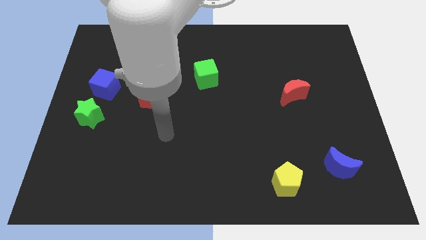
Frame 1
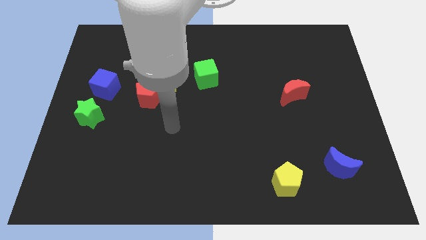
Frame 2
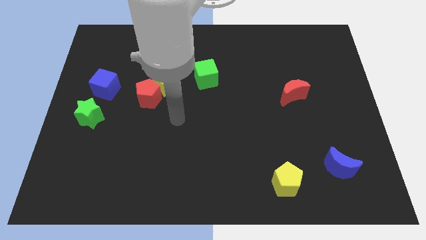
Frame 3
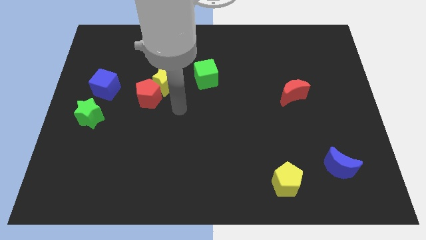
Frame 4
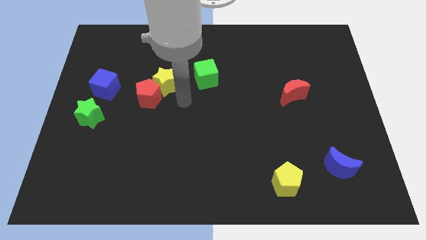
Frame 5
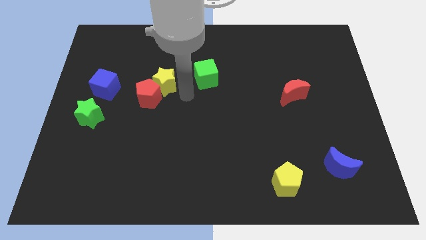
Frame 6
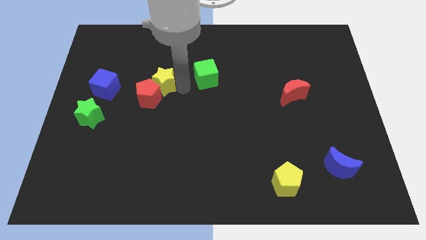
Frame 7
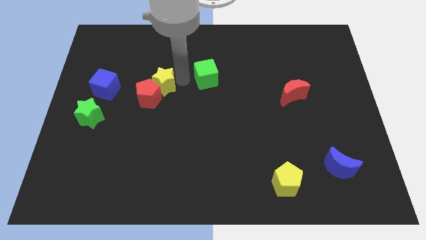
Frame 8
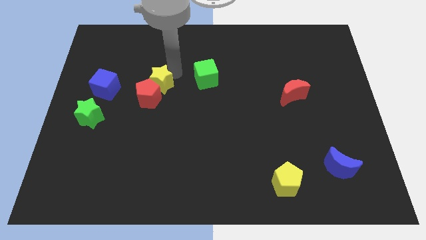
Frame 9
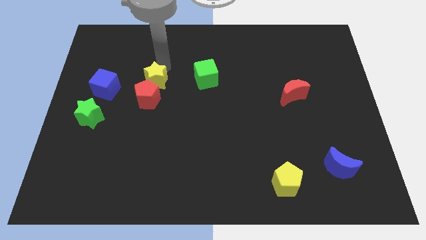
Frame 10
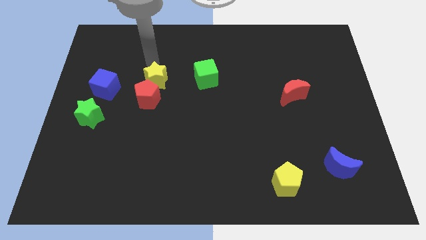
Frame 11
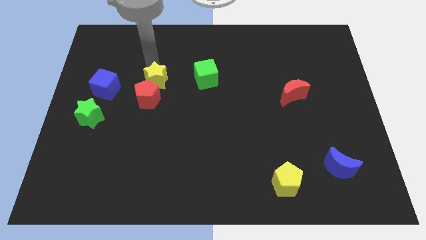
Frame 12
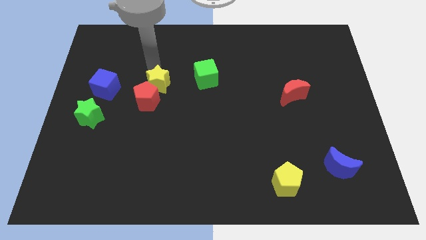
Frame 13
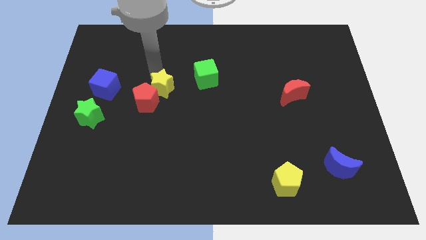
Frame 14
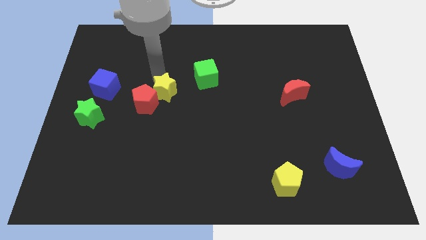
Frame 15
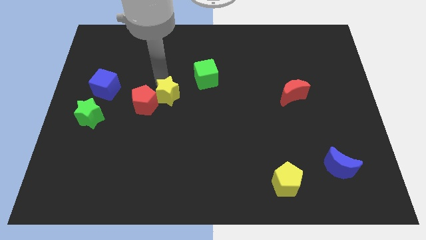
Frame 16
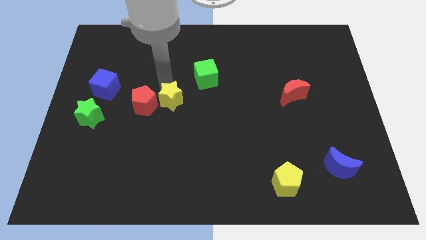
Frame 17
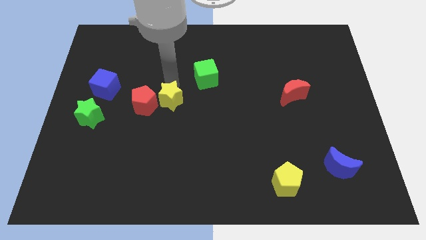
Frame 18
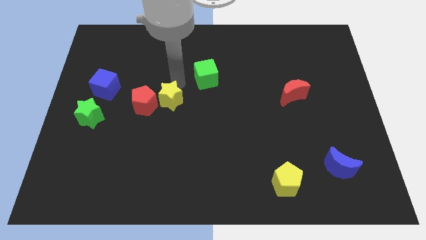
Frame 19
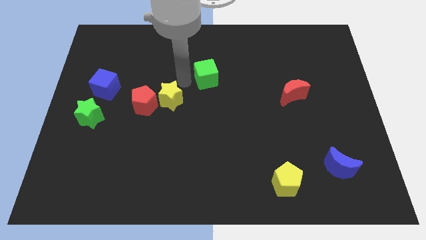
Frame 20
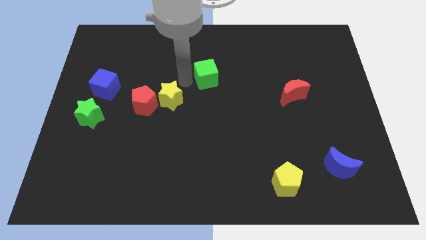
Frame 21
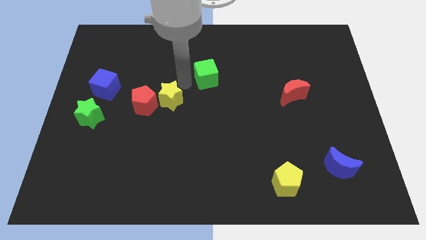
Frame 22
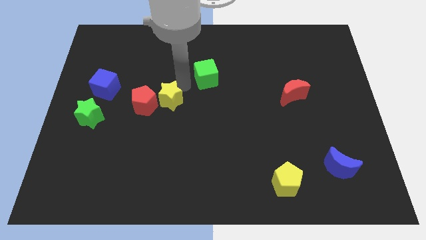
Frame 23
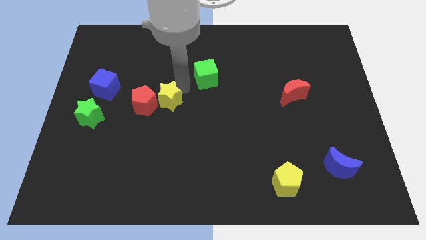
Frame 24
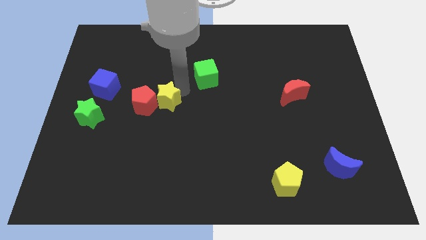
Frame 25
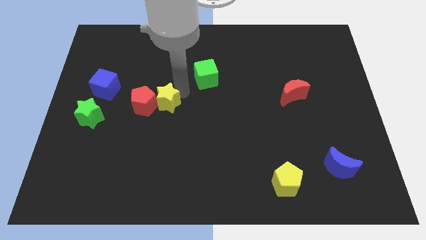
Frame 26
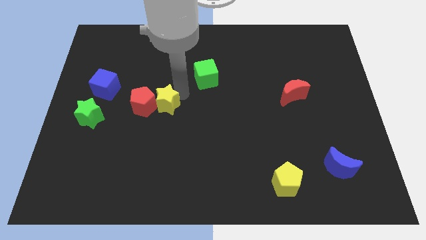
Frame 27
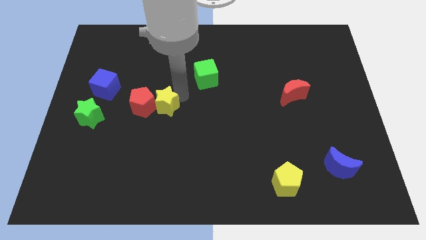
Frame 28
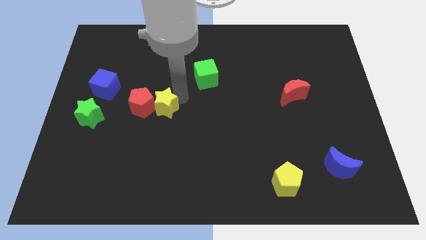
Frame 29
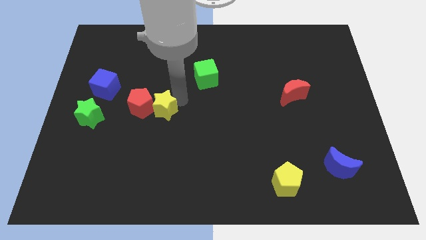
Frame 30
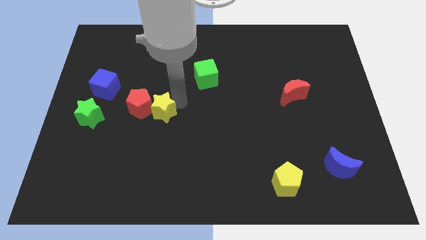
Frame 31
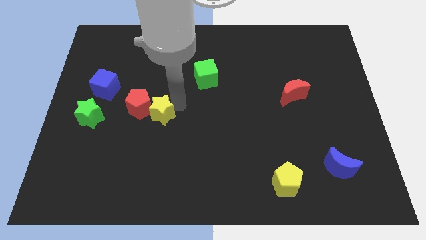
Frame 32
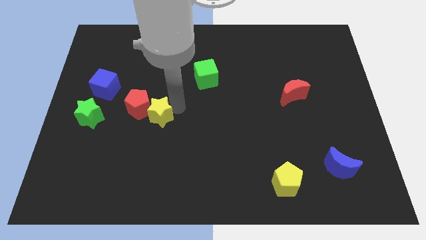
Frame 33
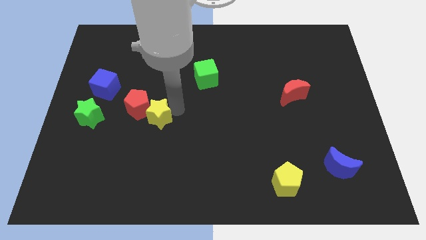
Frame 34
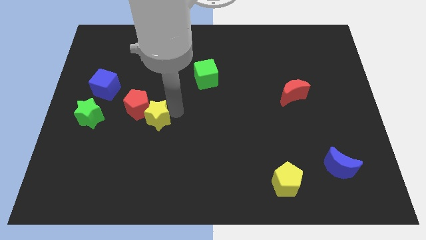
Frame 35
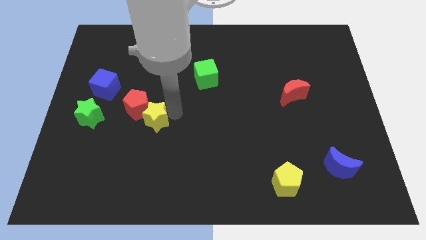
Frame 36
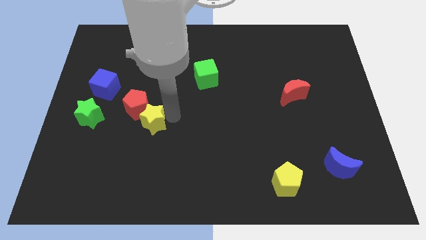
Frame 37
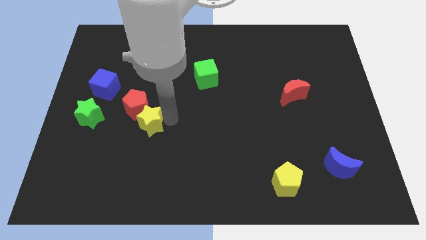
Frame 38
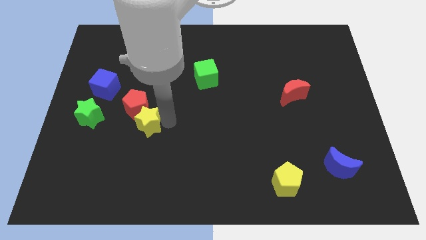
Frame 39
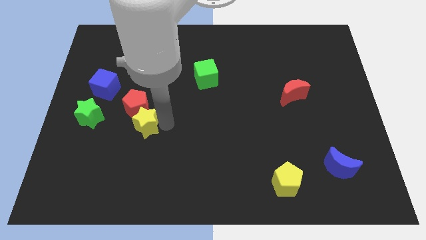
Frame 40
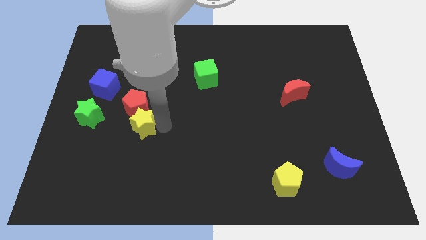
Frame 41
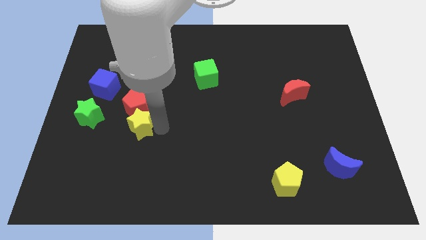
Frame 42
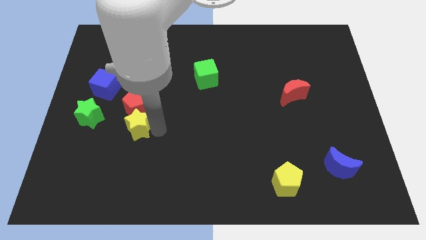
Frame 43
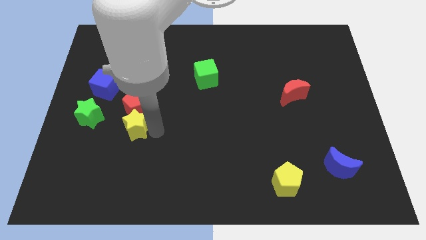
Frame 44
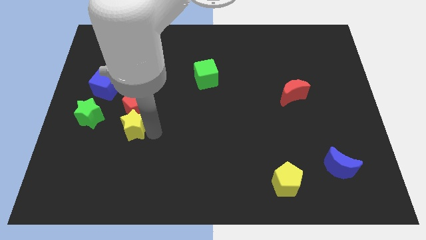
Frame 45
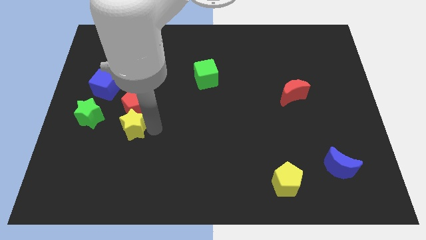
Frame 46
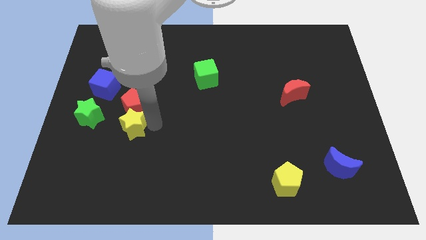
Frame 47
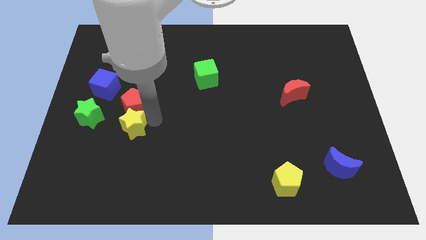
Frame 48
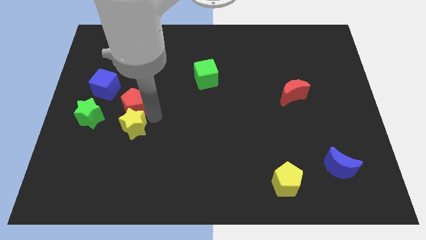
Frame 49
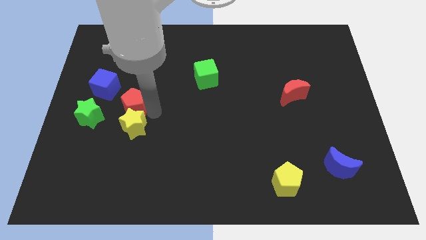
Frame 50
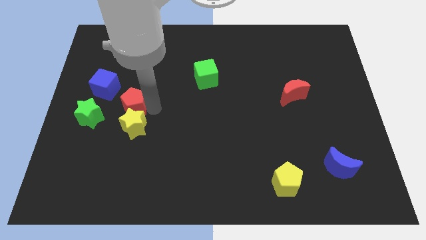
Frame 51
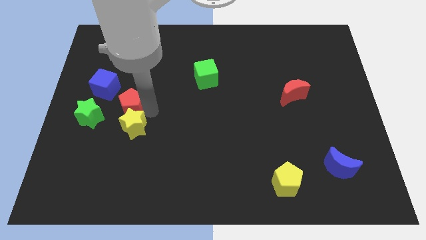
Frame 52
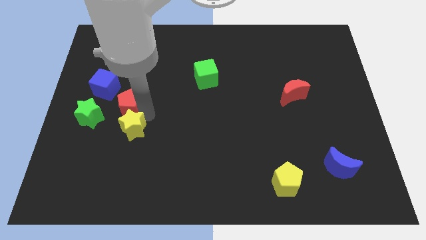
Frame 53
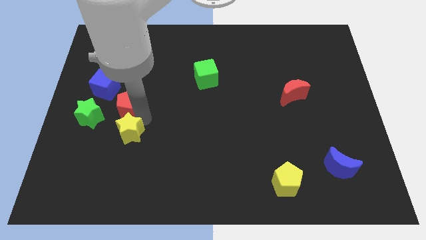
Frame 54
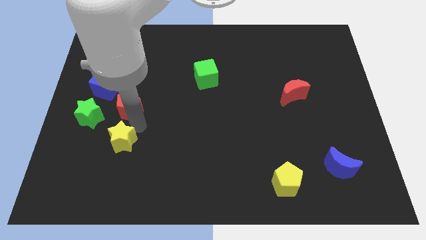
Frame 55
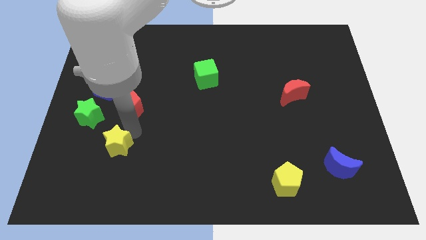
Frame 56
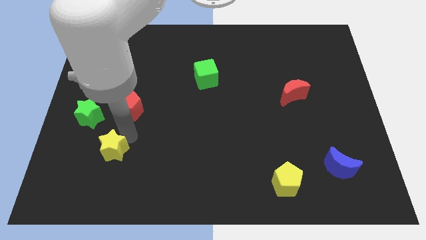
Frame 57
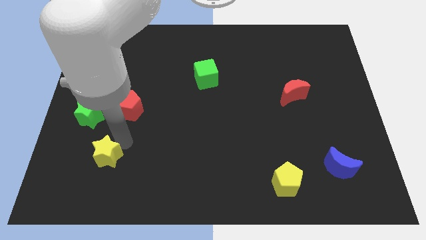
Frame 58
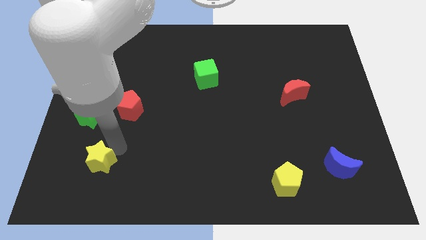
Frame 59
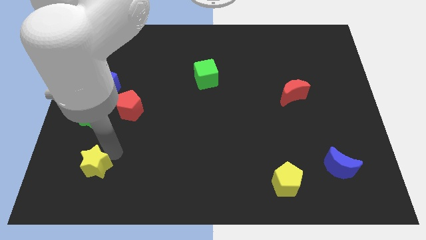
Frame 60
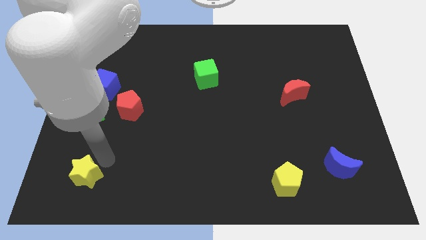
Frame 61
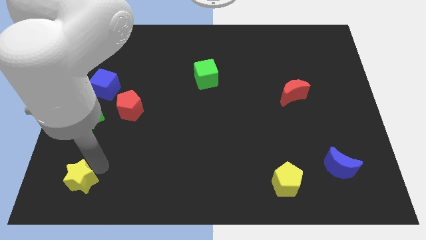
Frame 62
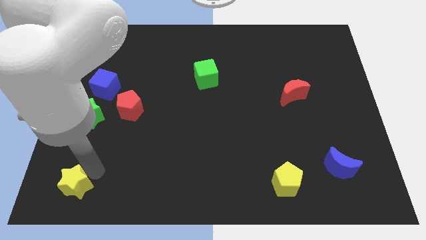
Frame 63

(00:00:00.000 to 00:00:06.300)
slide the yellow star to the lower left corner

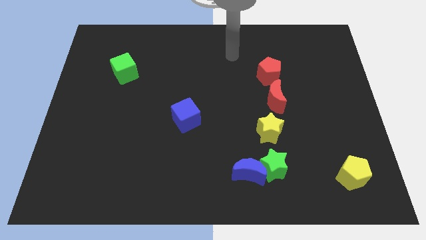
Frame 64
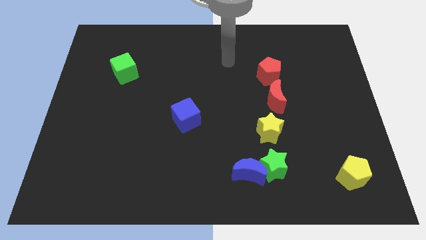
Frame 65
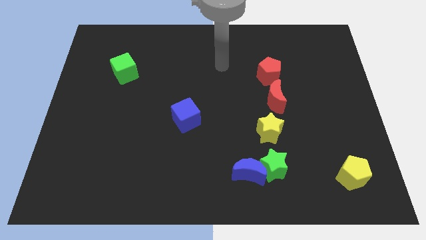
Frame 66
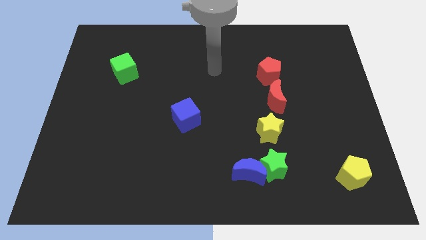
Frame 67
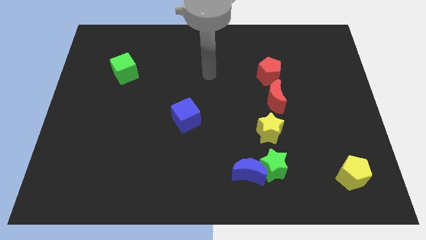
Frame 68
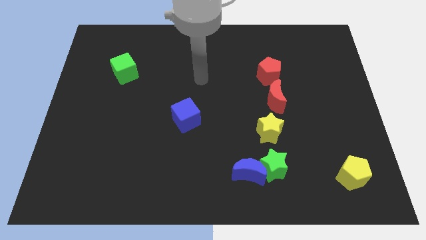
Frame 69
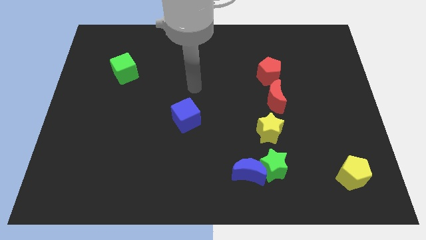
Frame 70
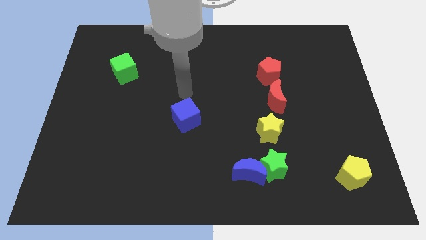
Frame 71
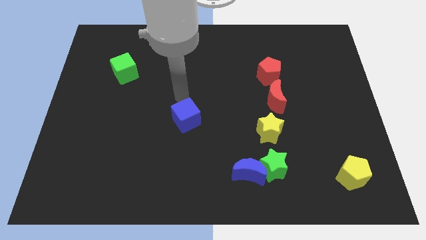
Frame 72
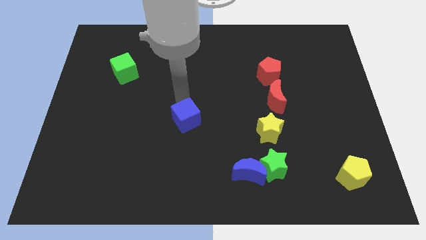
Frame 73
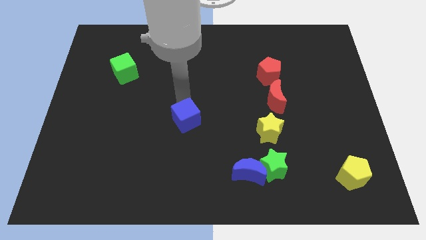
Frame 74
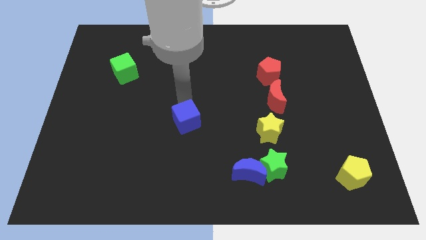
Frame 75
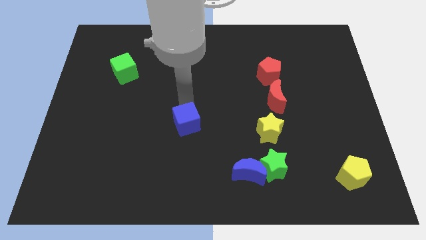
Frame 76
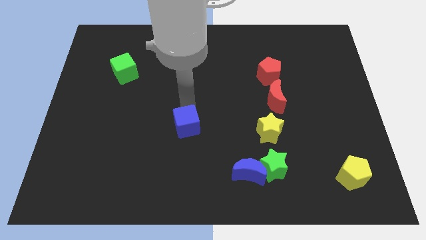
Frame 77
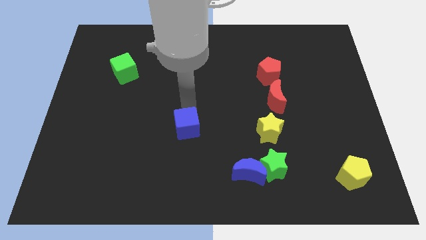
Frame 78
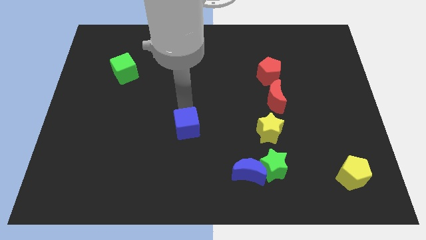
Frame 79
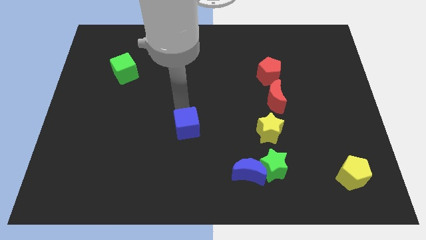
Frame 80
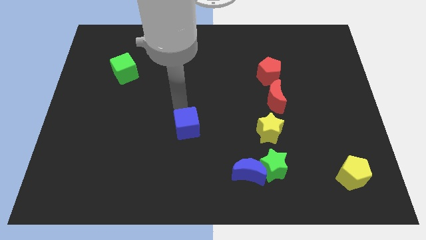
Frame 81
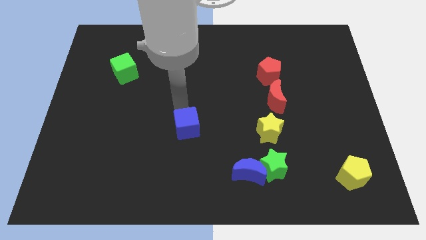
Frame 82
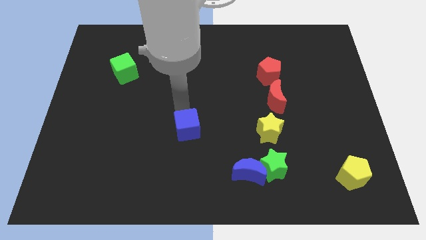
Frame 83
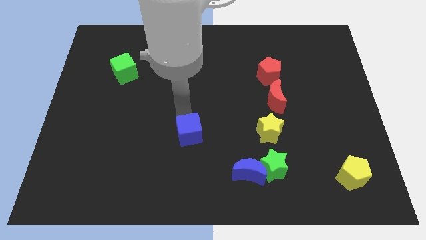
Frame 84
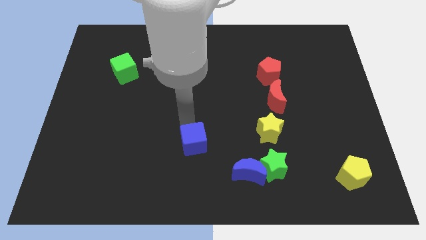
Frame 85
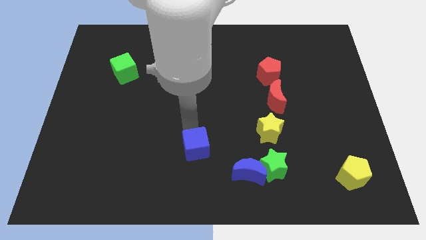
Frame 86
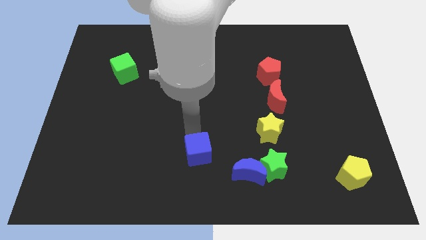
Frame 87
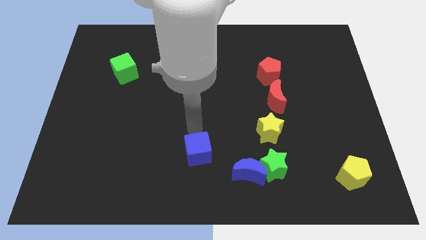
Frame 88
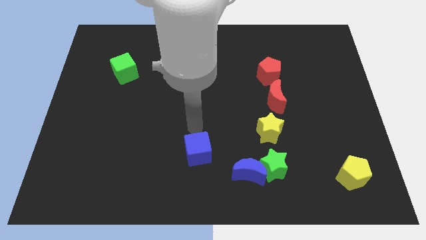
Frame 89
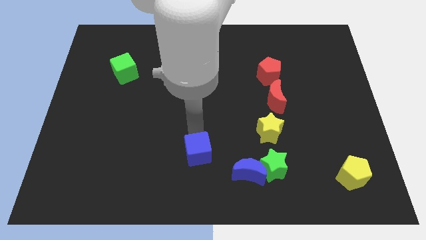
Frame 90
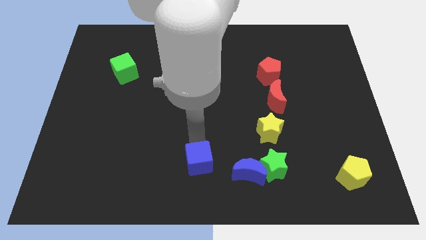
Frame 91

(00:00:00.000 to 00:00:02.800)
move the blue cube to the bottom
